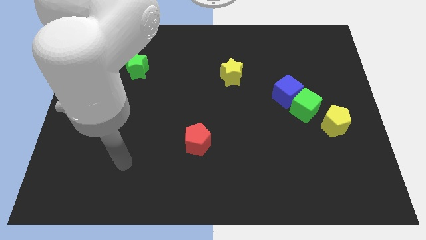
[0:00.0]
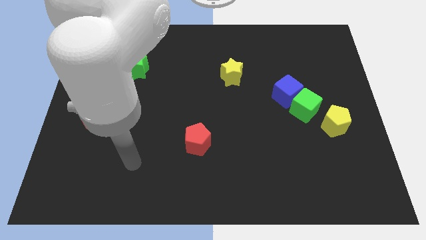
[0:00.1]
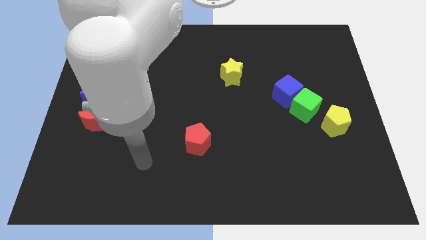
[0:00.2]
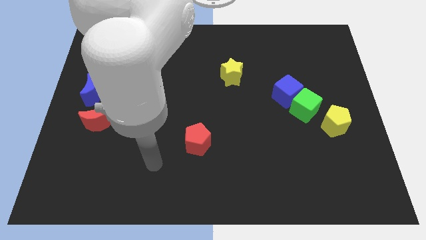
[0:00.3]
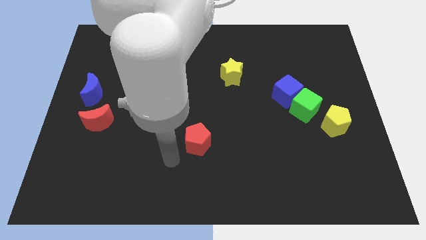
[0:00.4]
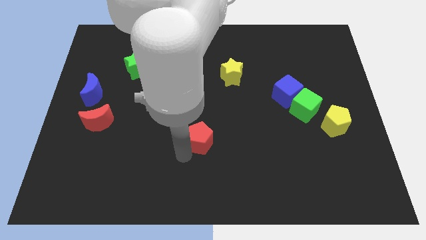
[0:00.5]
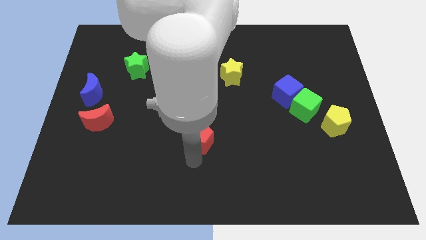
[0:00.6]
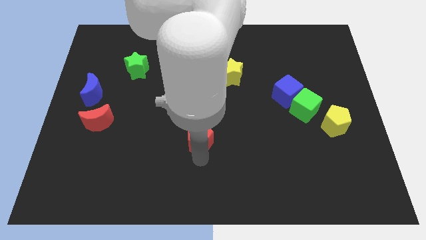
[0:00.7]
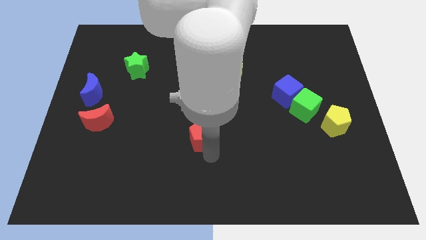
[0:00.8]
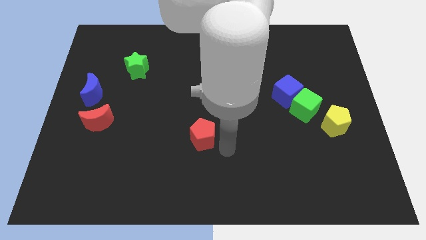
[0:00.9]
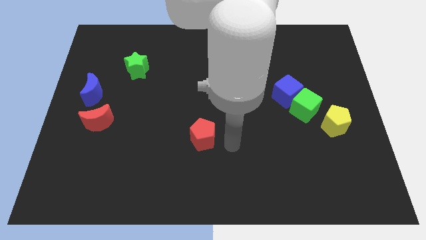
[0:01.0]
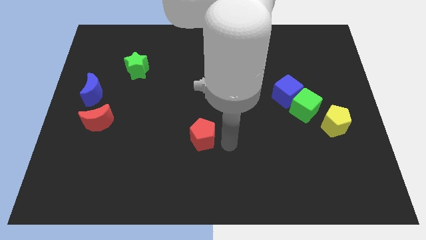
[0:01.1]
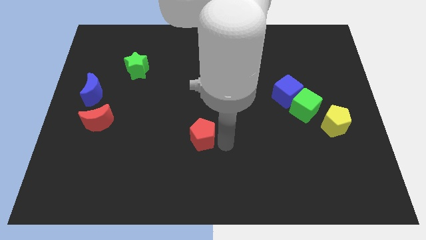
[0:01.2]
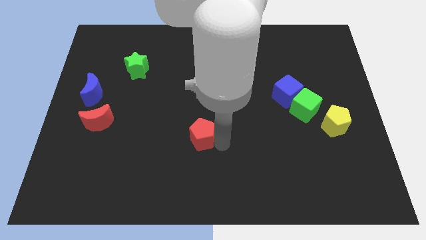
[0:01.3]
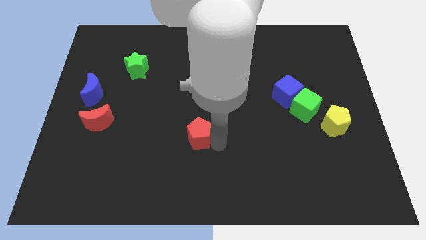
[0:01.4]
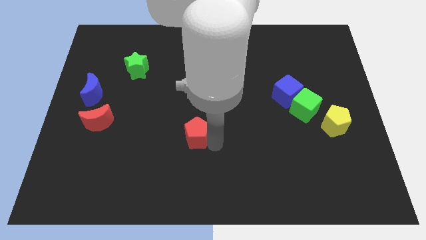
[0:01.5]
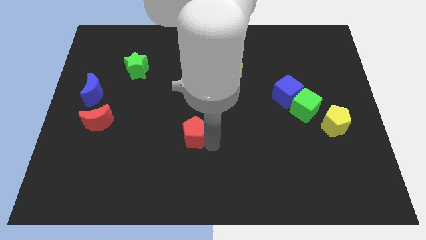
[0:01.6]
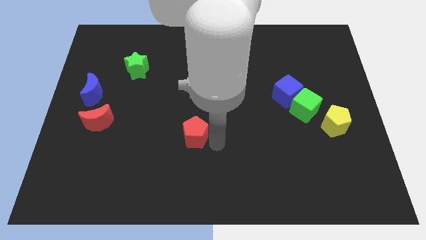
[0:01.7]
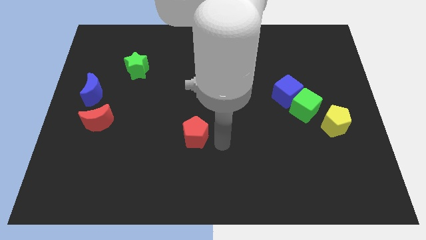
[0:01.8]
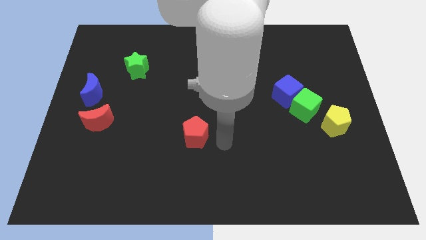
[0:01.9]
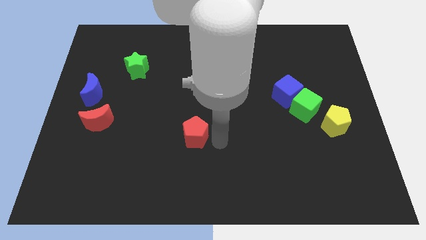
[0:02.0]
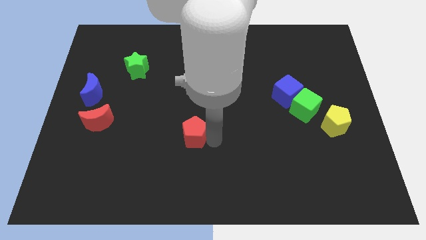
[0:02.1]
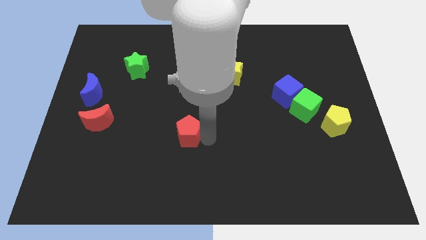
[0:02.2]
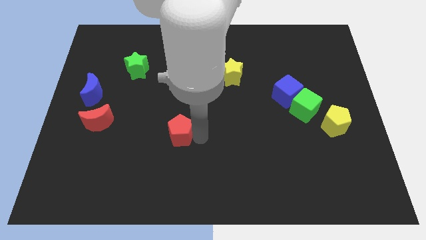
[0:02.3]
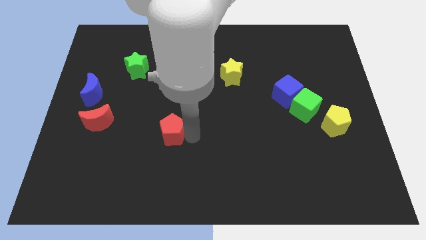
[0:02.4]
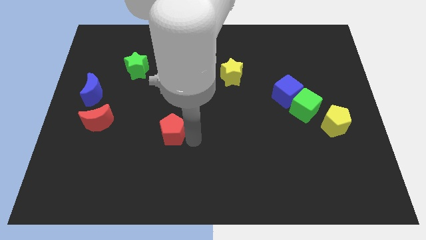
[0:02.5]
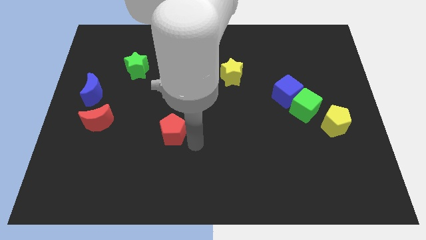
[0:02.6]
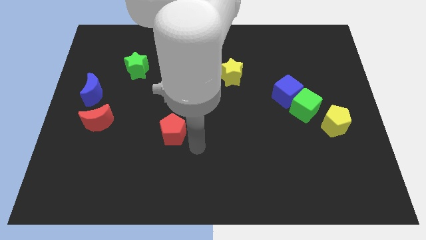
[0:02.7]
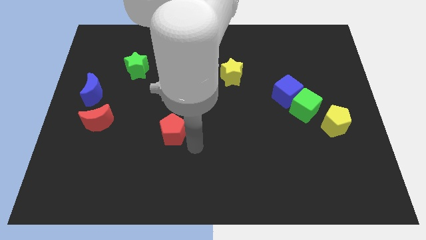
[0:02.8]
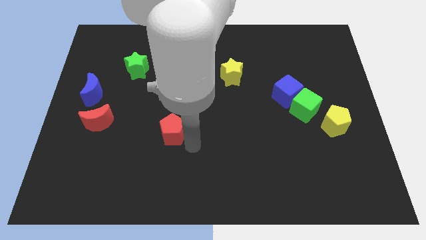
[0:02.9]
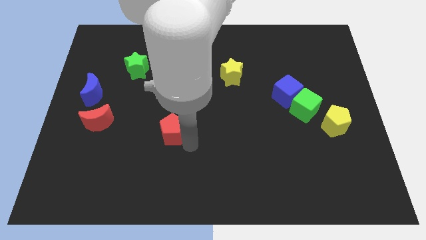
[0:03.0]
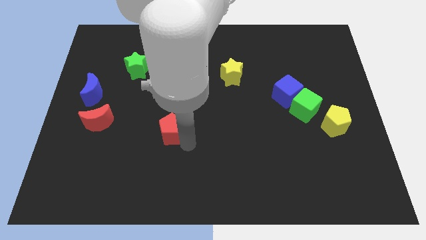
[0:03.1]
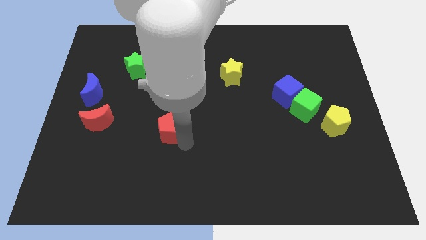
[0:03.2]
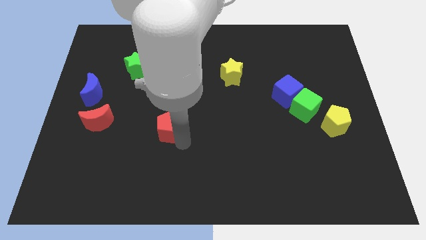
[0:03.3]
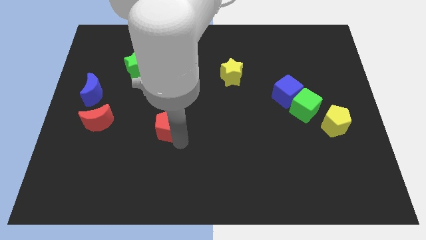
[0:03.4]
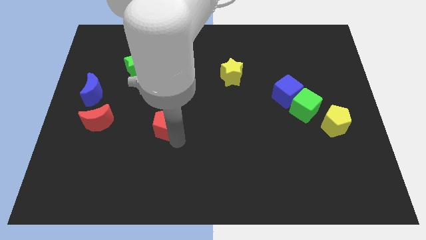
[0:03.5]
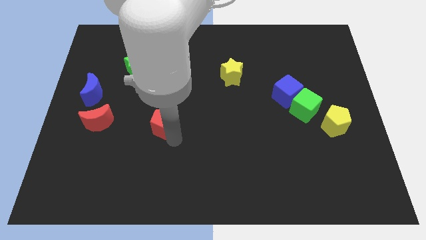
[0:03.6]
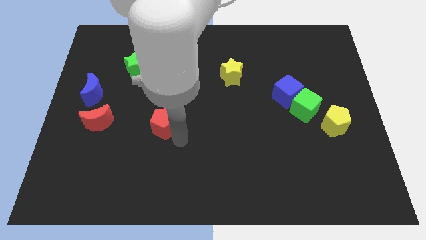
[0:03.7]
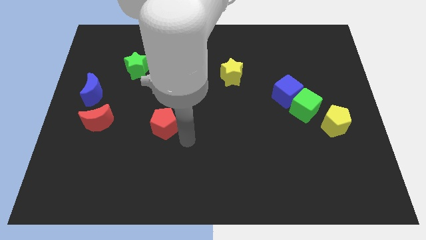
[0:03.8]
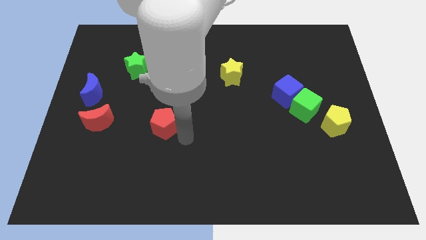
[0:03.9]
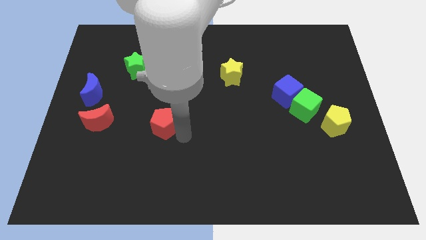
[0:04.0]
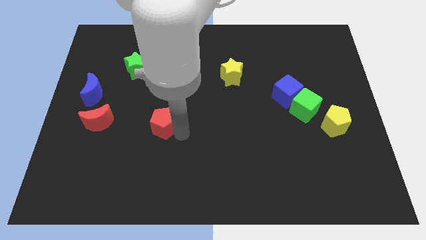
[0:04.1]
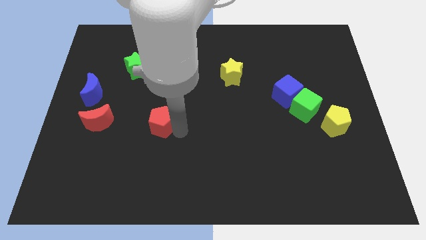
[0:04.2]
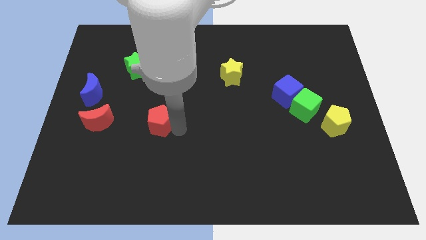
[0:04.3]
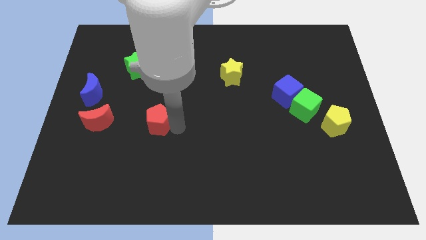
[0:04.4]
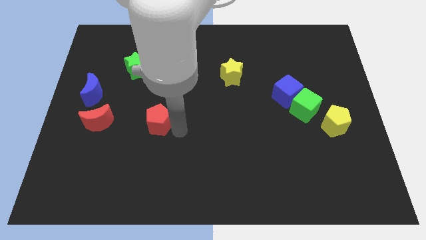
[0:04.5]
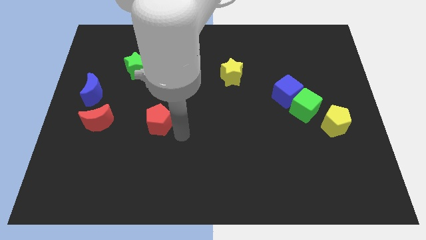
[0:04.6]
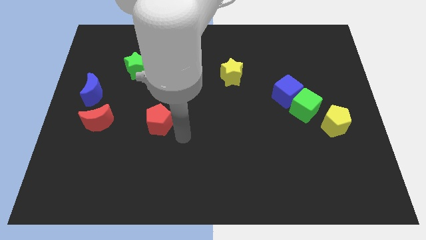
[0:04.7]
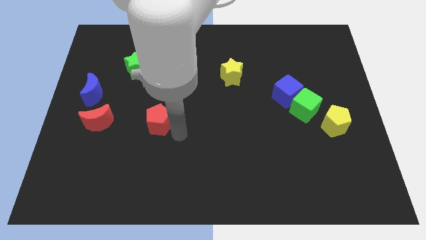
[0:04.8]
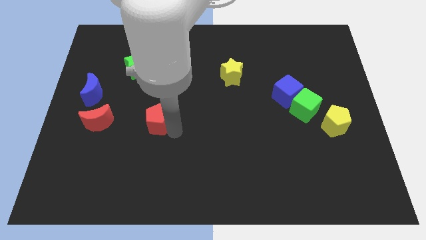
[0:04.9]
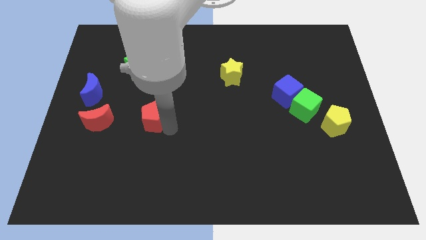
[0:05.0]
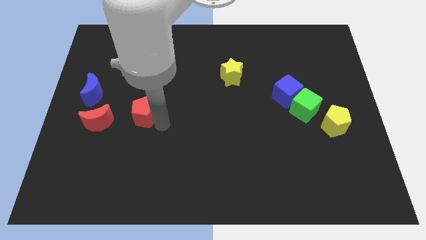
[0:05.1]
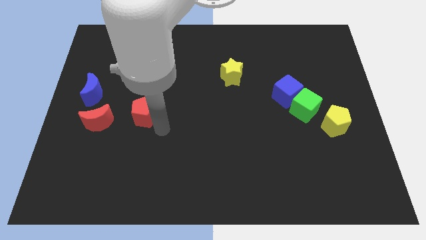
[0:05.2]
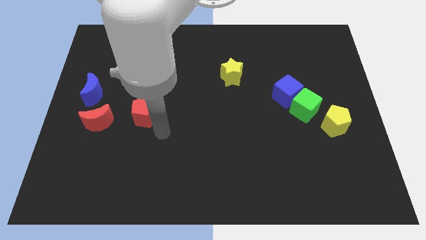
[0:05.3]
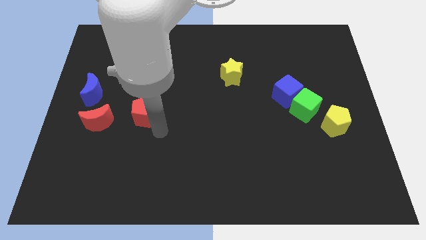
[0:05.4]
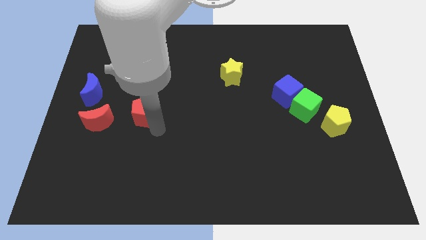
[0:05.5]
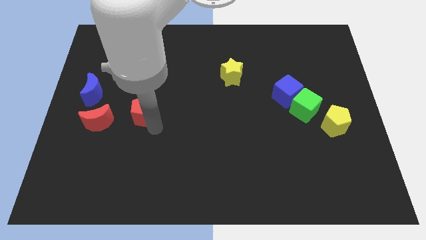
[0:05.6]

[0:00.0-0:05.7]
push the red pentagon to the bottom of the green star
